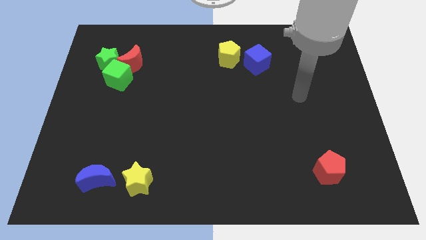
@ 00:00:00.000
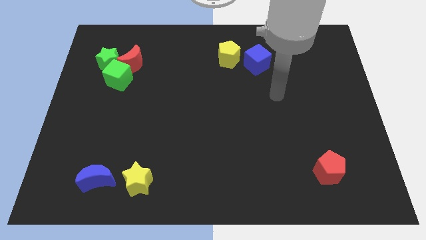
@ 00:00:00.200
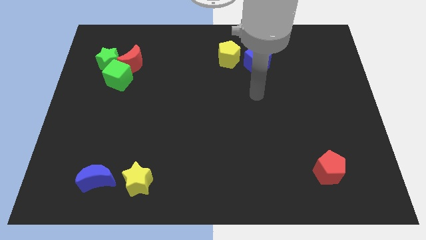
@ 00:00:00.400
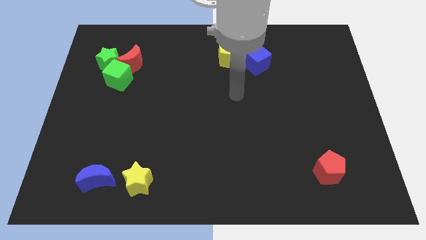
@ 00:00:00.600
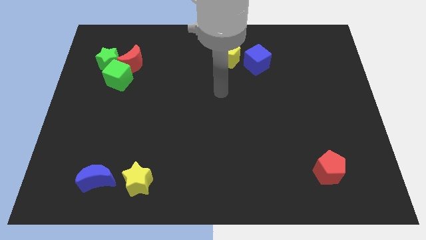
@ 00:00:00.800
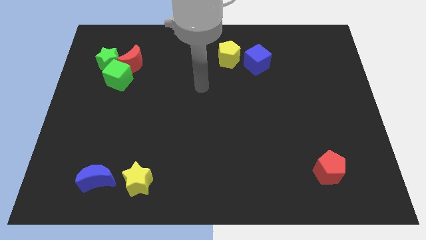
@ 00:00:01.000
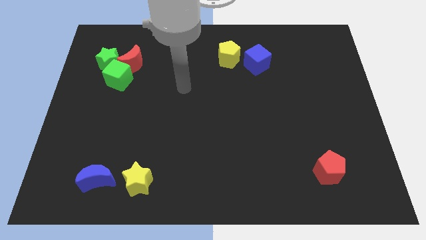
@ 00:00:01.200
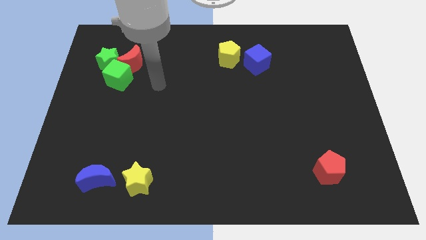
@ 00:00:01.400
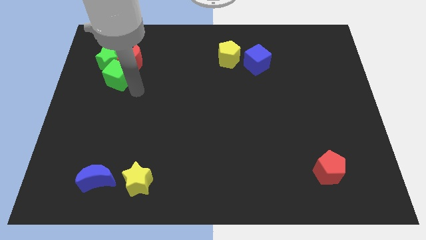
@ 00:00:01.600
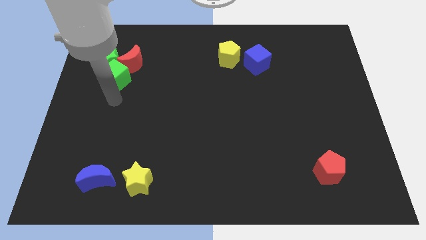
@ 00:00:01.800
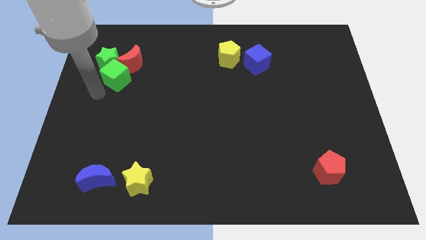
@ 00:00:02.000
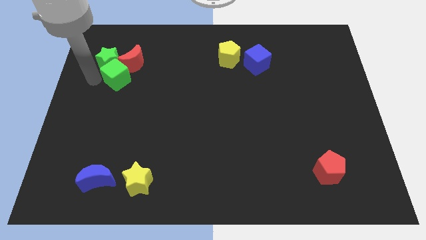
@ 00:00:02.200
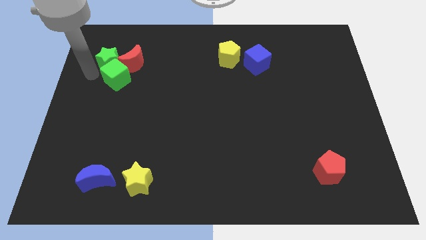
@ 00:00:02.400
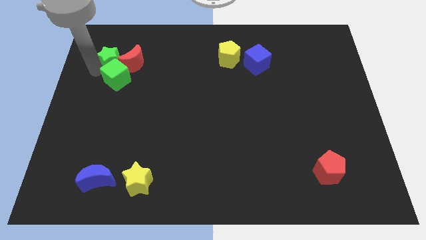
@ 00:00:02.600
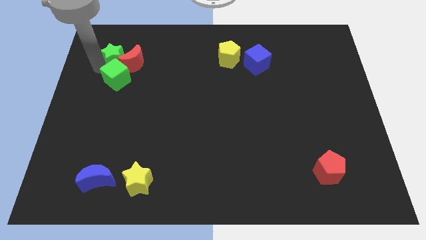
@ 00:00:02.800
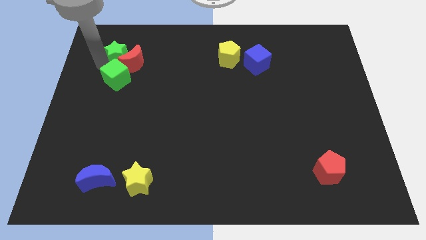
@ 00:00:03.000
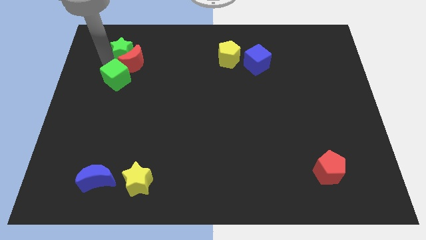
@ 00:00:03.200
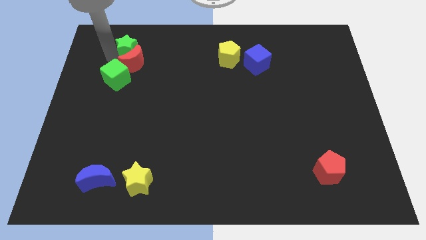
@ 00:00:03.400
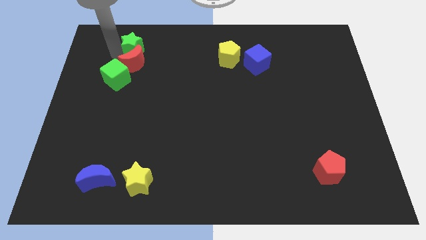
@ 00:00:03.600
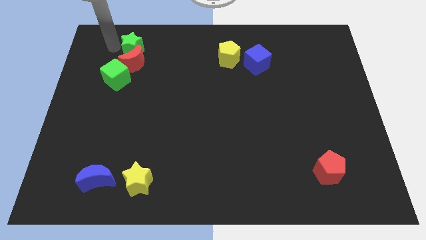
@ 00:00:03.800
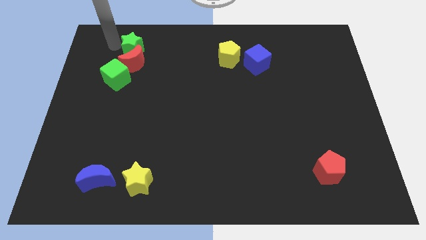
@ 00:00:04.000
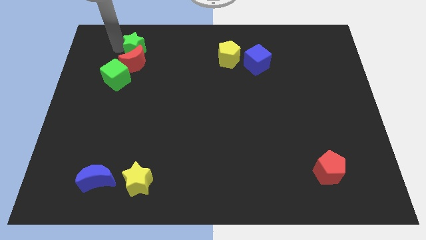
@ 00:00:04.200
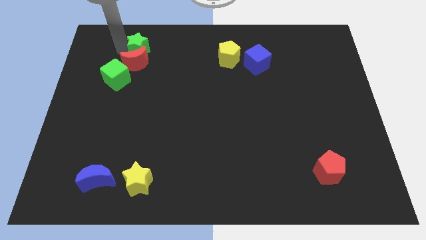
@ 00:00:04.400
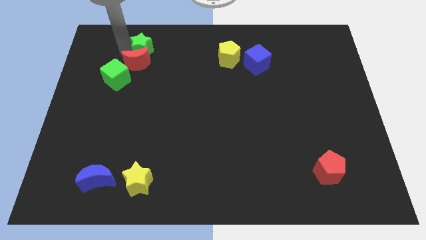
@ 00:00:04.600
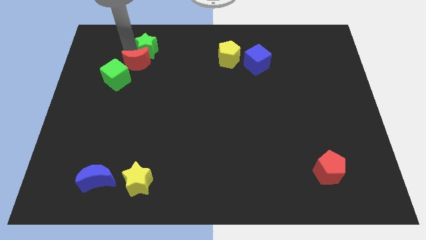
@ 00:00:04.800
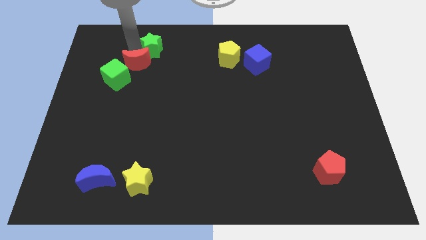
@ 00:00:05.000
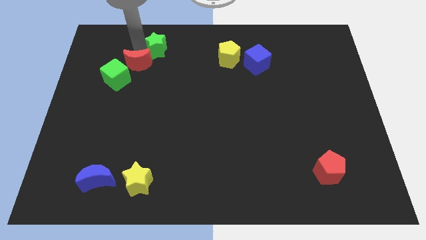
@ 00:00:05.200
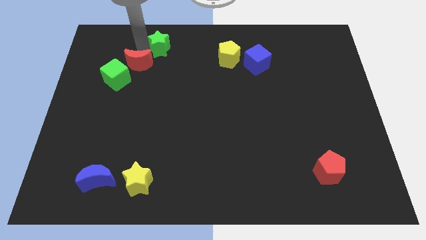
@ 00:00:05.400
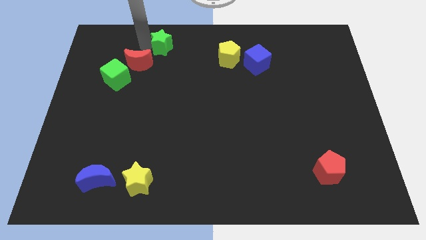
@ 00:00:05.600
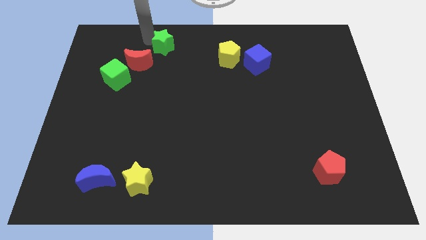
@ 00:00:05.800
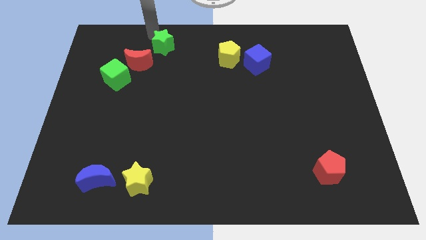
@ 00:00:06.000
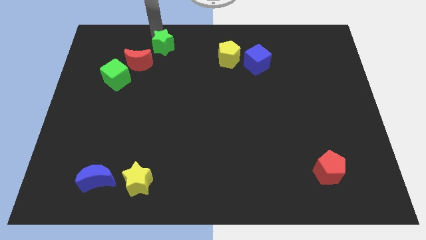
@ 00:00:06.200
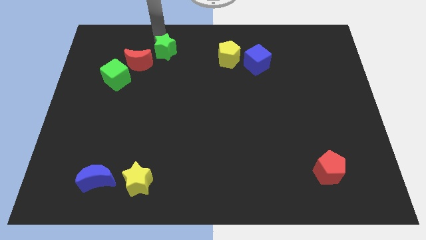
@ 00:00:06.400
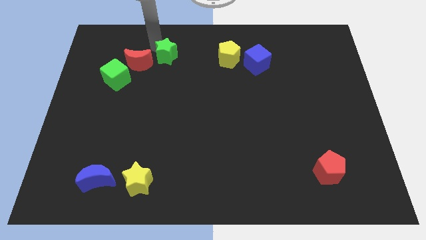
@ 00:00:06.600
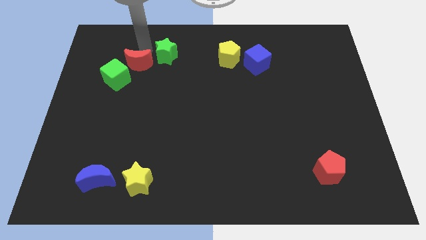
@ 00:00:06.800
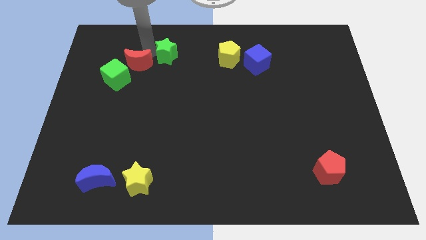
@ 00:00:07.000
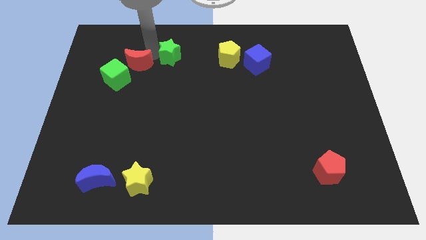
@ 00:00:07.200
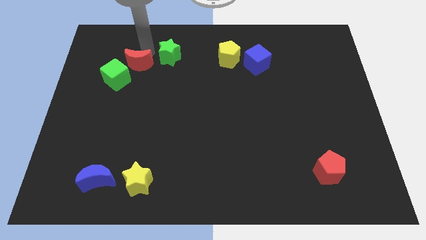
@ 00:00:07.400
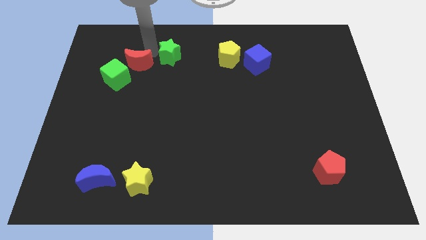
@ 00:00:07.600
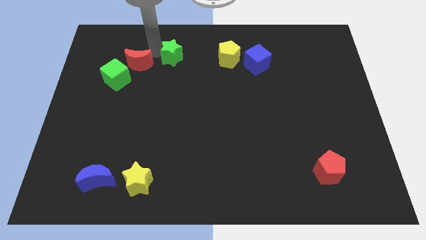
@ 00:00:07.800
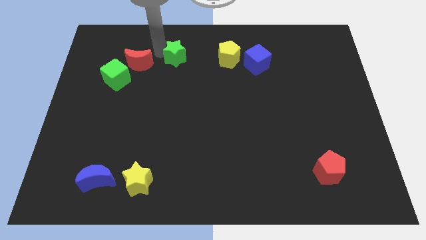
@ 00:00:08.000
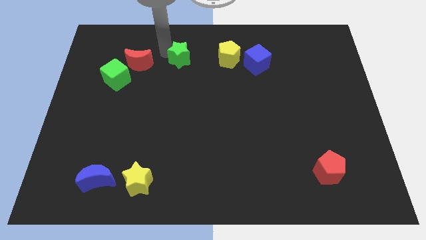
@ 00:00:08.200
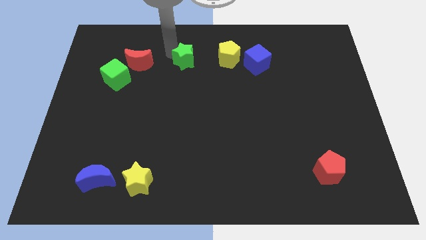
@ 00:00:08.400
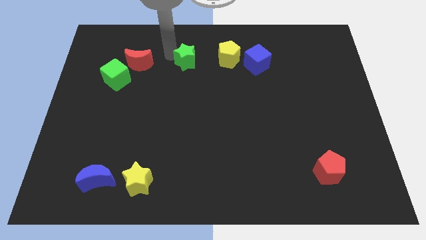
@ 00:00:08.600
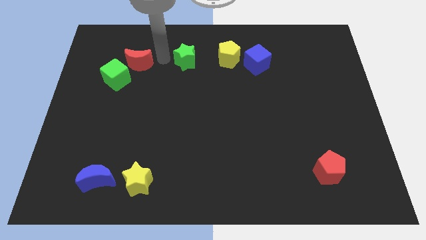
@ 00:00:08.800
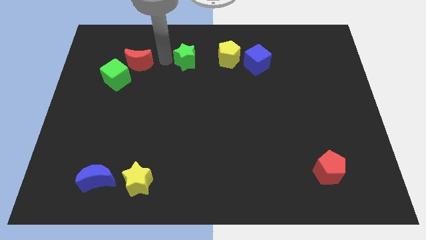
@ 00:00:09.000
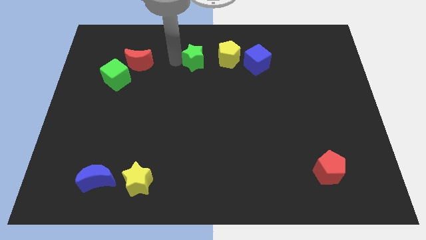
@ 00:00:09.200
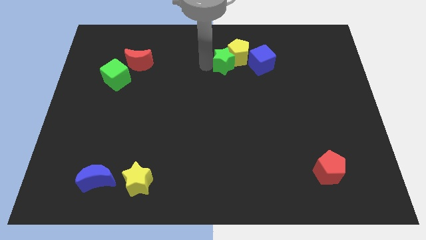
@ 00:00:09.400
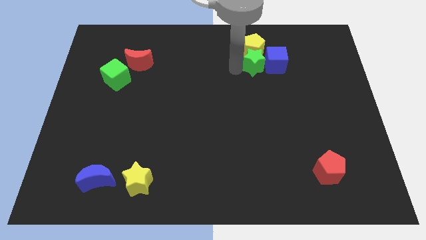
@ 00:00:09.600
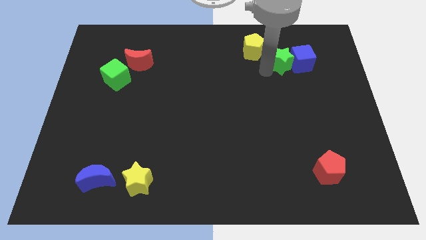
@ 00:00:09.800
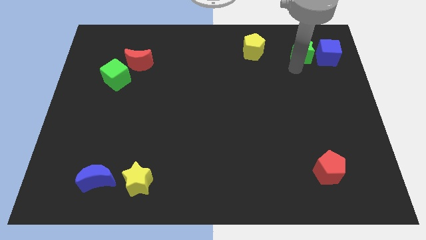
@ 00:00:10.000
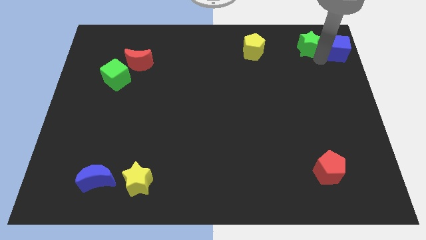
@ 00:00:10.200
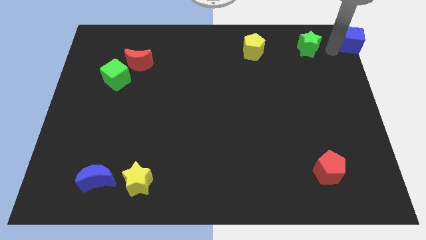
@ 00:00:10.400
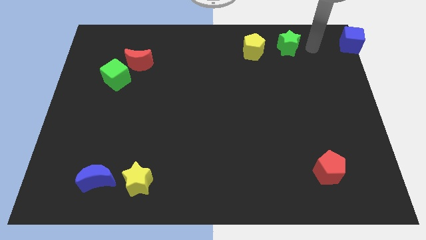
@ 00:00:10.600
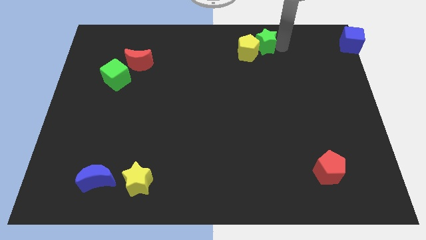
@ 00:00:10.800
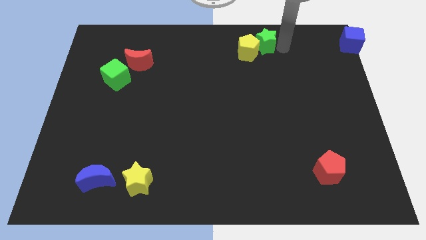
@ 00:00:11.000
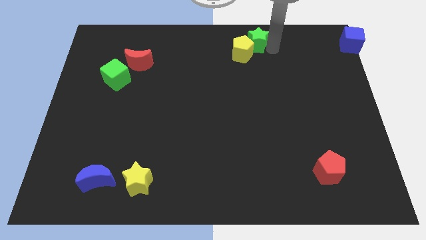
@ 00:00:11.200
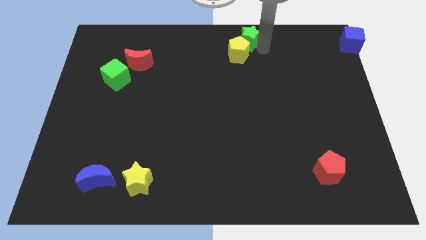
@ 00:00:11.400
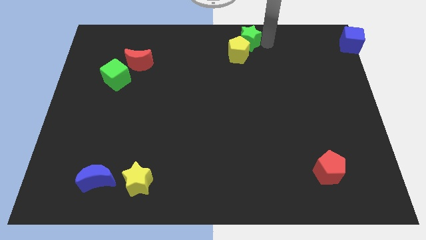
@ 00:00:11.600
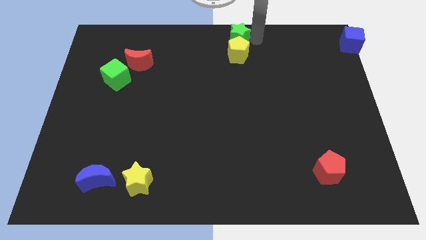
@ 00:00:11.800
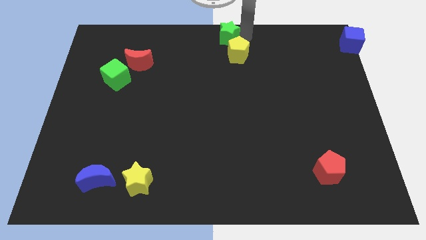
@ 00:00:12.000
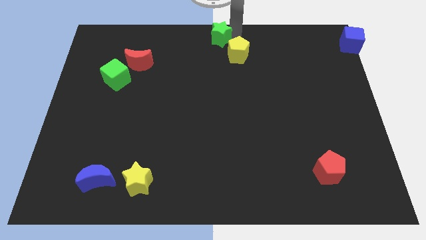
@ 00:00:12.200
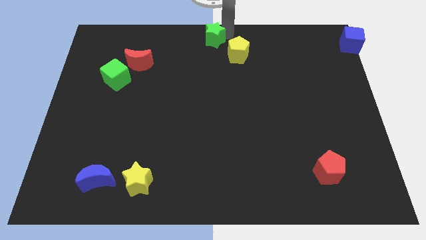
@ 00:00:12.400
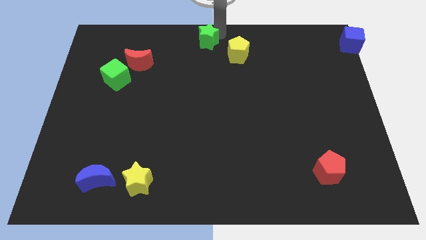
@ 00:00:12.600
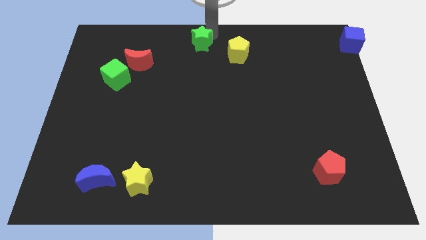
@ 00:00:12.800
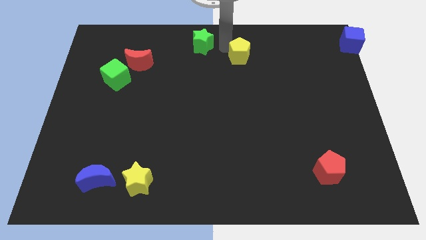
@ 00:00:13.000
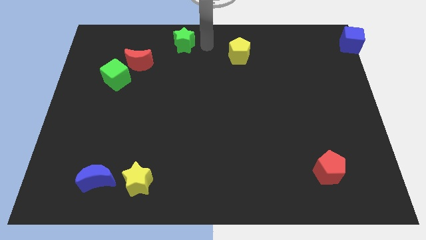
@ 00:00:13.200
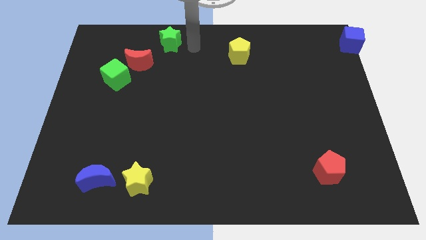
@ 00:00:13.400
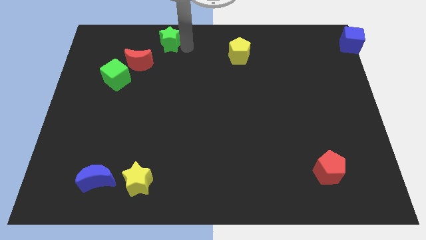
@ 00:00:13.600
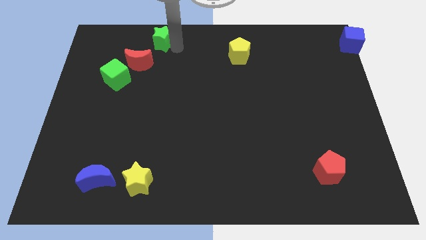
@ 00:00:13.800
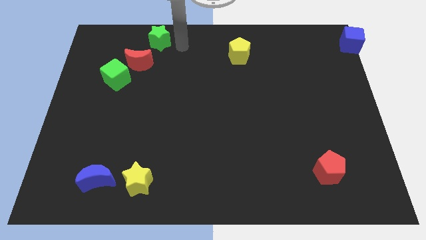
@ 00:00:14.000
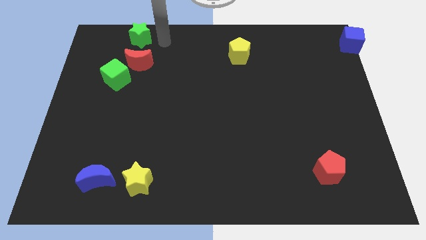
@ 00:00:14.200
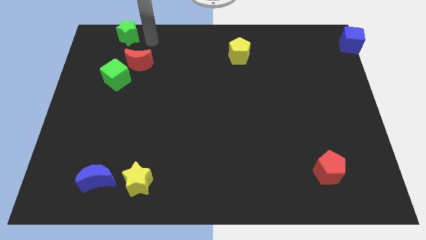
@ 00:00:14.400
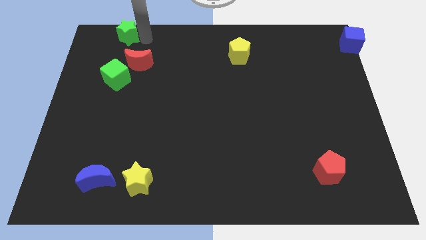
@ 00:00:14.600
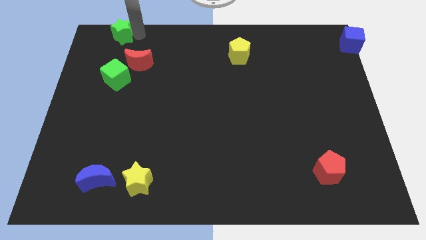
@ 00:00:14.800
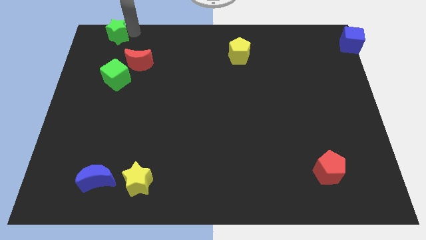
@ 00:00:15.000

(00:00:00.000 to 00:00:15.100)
push the green star to the top left
